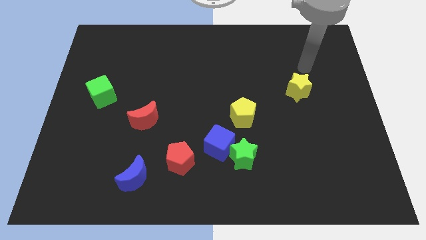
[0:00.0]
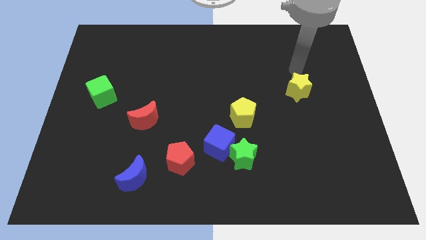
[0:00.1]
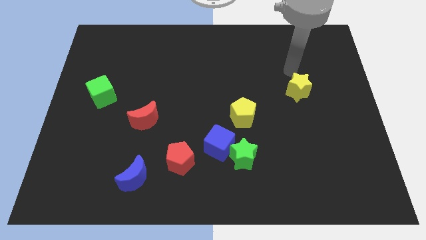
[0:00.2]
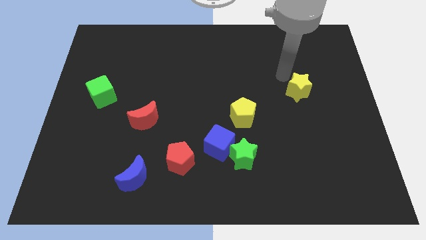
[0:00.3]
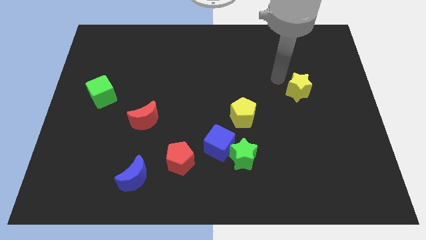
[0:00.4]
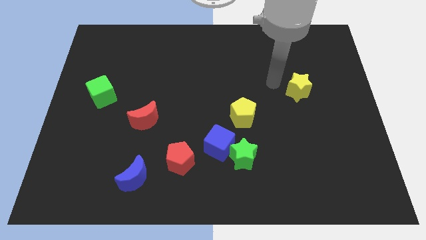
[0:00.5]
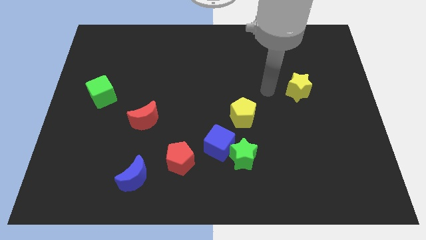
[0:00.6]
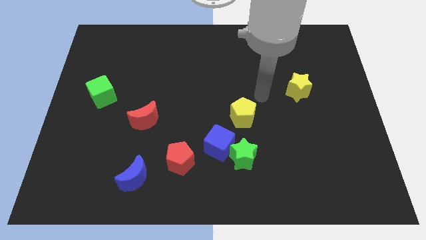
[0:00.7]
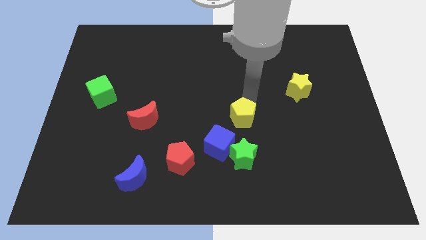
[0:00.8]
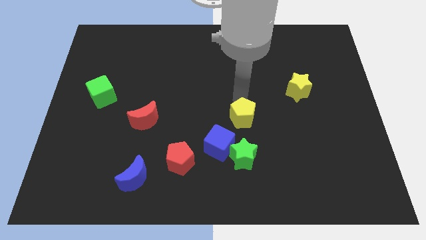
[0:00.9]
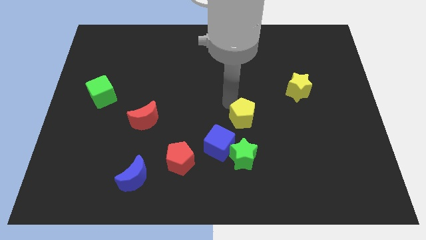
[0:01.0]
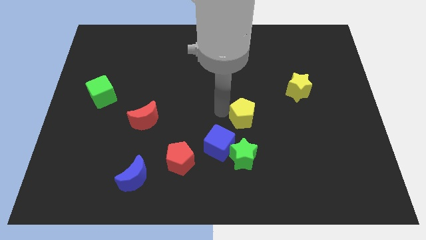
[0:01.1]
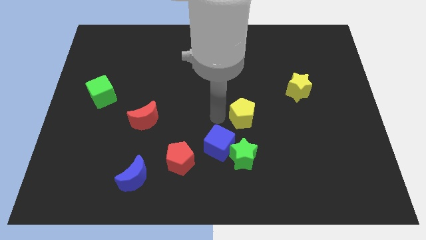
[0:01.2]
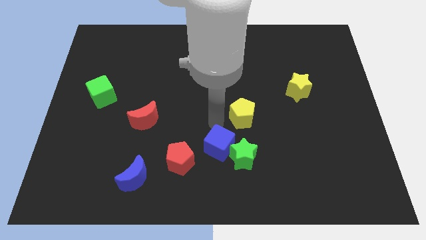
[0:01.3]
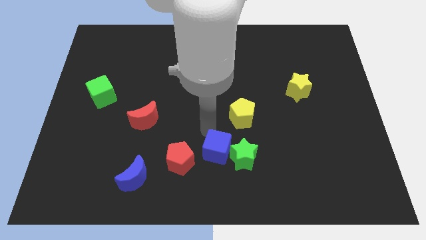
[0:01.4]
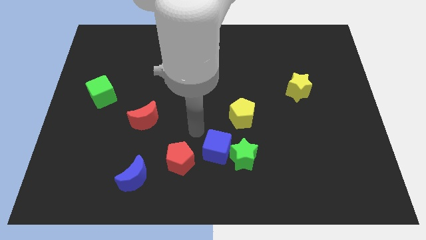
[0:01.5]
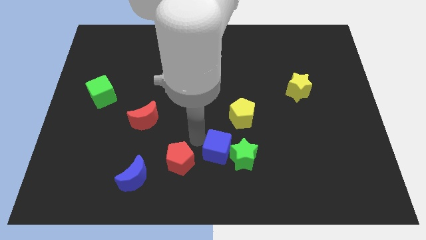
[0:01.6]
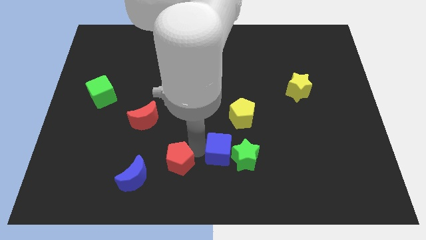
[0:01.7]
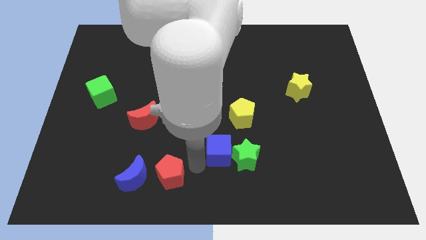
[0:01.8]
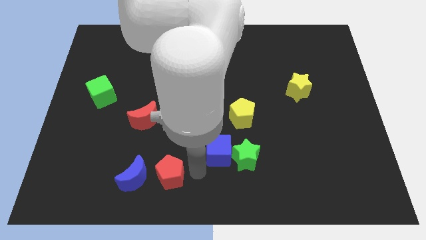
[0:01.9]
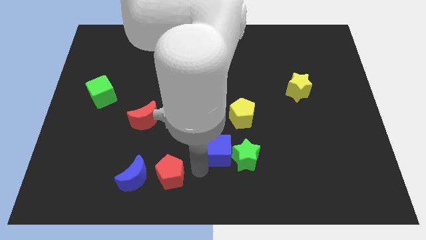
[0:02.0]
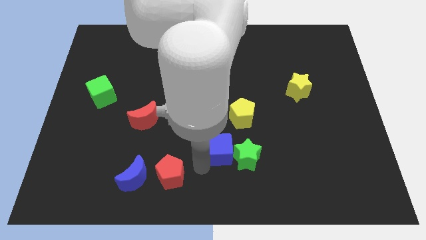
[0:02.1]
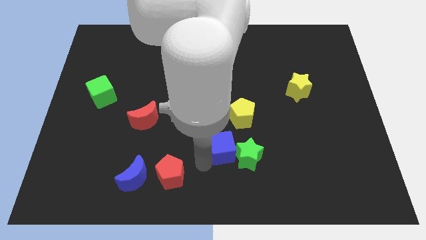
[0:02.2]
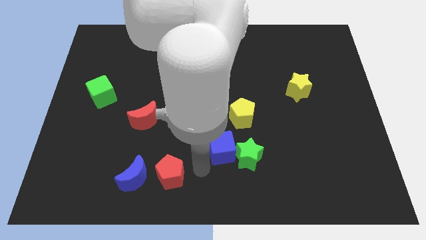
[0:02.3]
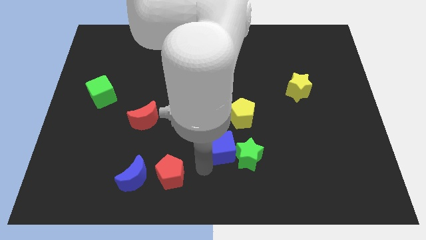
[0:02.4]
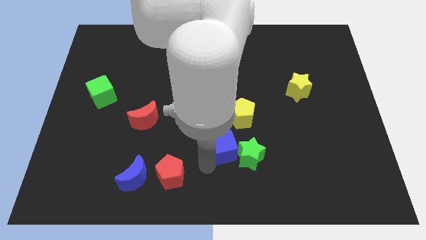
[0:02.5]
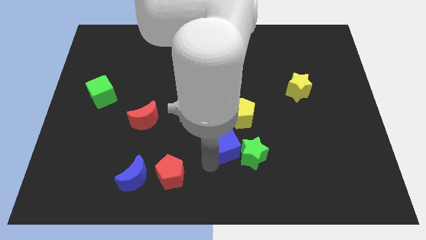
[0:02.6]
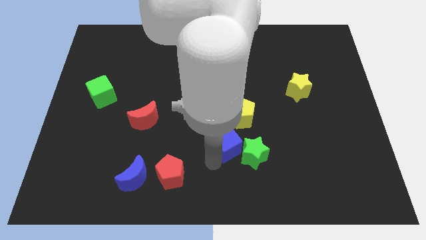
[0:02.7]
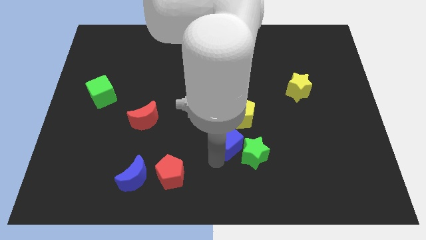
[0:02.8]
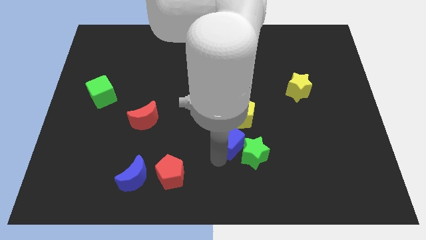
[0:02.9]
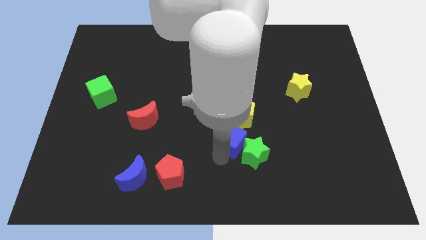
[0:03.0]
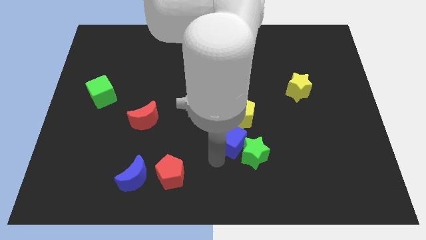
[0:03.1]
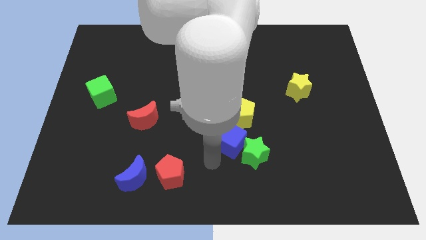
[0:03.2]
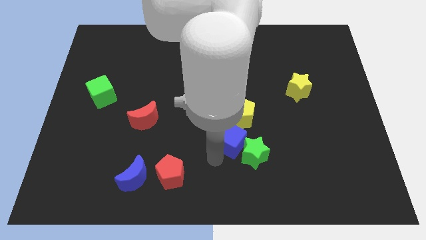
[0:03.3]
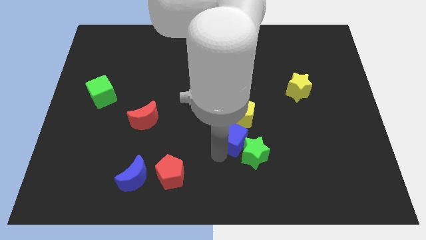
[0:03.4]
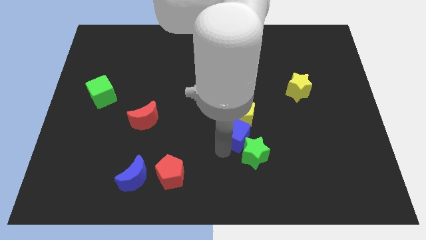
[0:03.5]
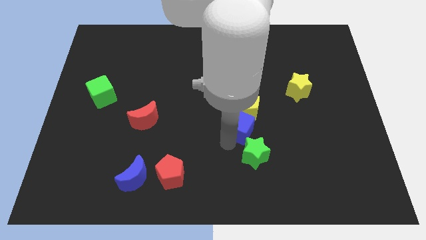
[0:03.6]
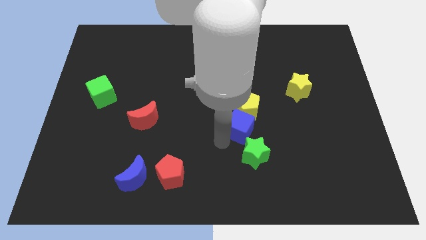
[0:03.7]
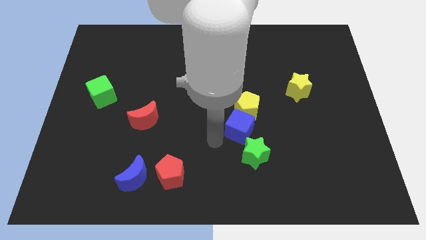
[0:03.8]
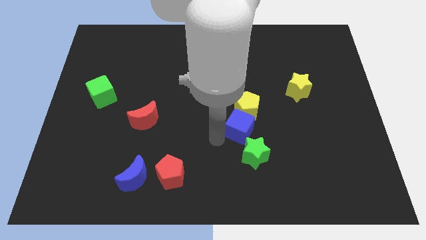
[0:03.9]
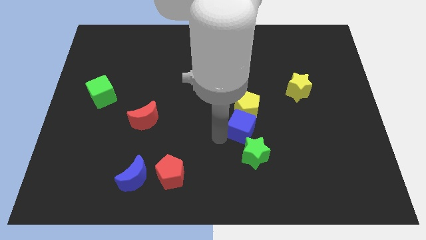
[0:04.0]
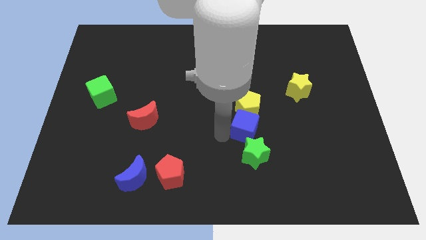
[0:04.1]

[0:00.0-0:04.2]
move the blue cube upwards and to the right a little bit

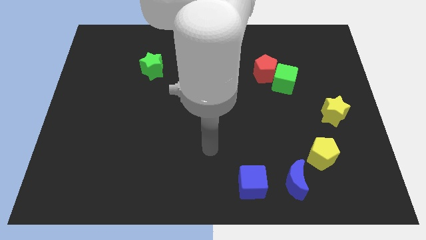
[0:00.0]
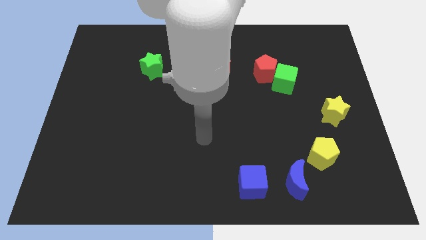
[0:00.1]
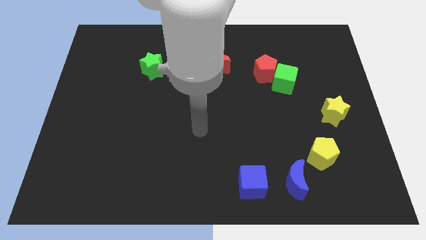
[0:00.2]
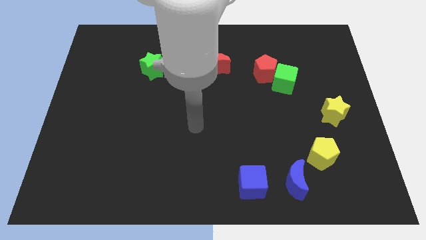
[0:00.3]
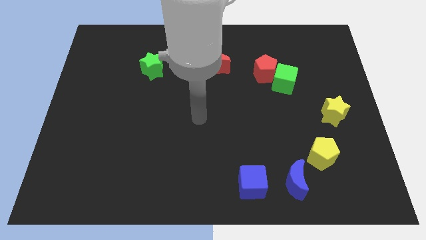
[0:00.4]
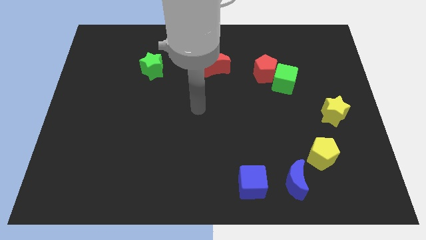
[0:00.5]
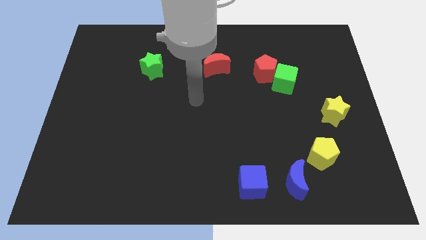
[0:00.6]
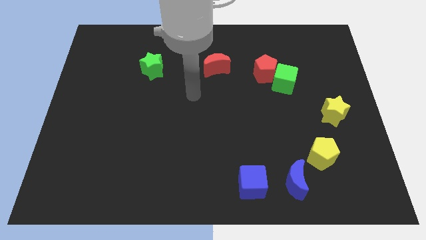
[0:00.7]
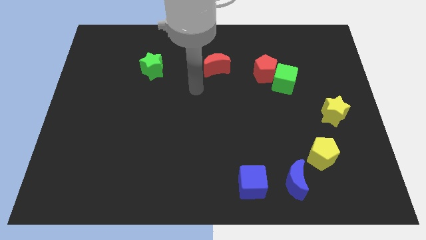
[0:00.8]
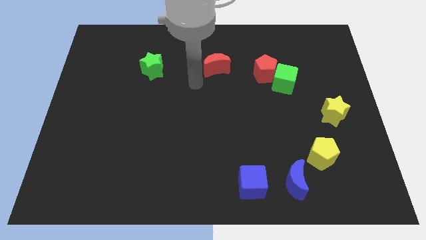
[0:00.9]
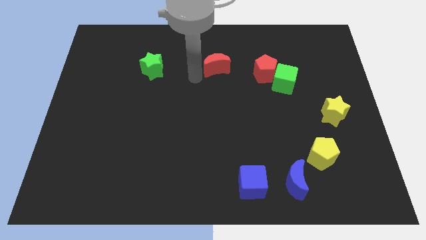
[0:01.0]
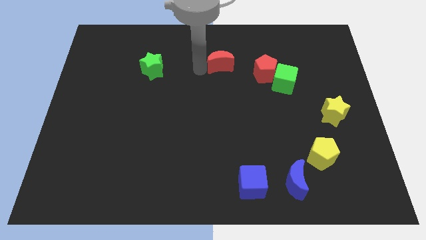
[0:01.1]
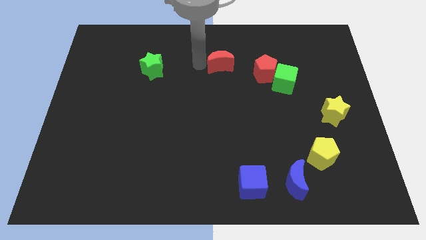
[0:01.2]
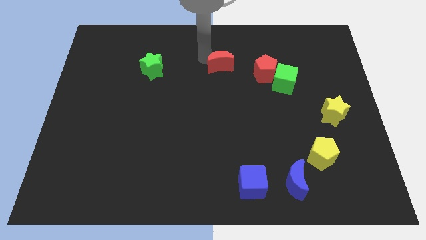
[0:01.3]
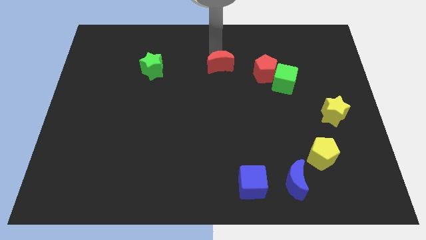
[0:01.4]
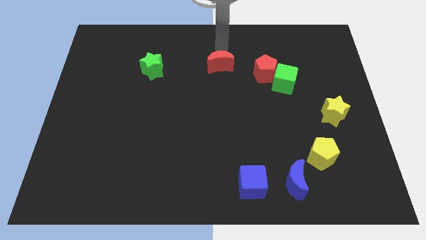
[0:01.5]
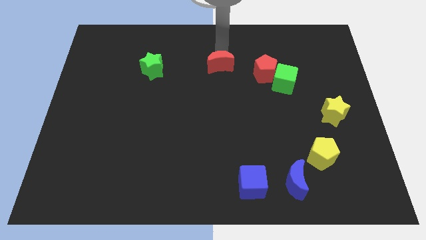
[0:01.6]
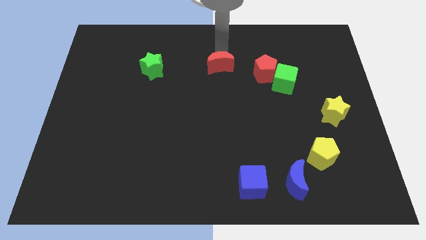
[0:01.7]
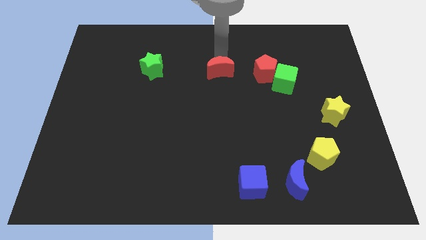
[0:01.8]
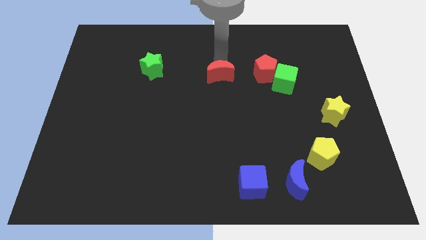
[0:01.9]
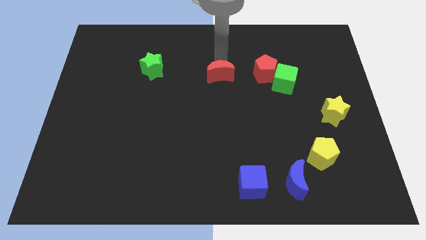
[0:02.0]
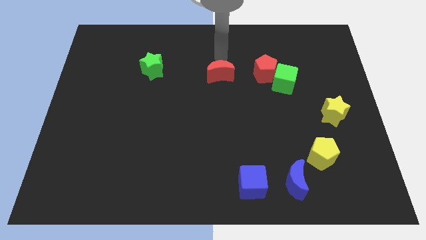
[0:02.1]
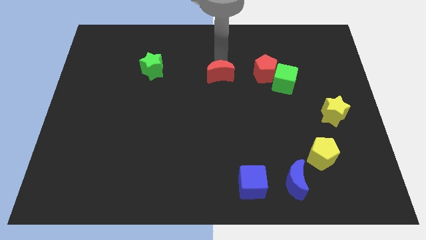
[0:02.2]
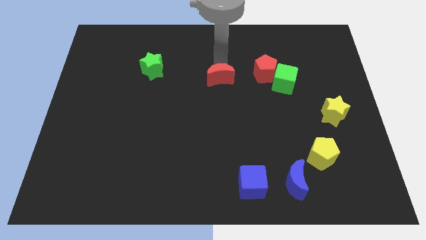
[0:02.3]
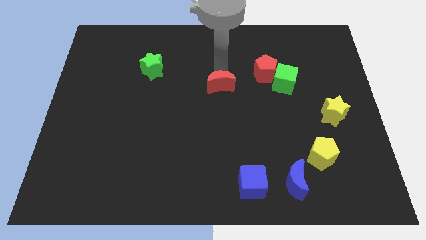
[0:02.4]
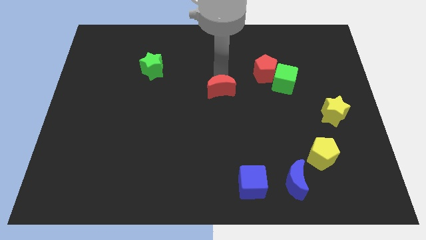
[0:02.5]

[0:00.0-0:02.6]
slightly slide the red moon downwards

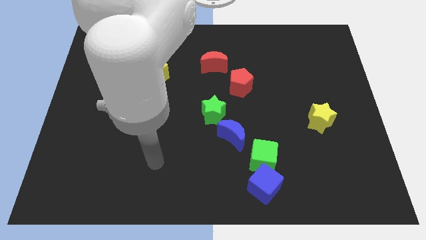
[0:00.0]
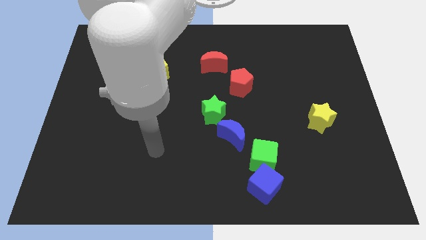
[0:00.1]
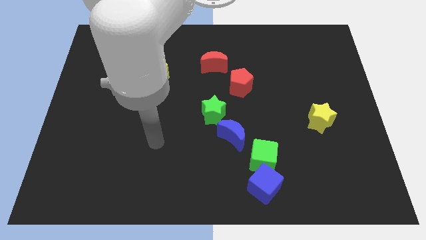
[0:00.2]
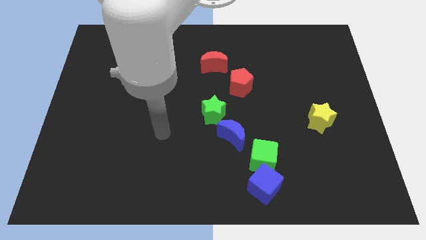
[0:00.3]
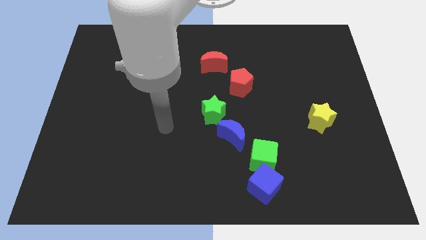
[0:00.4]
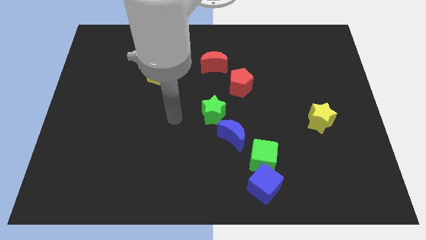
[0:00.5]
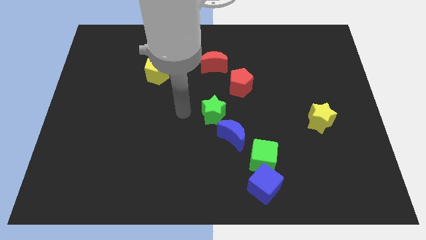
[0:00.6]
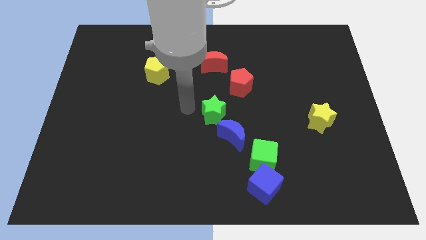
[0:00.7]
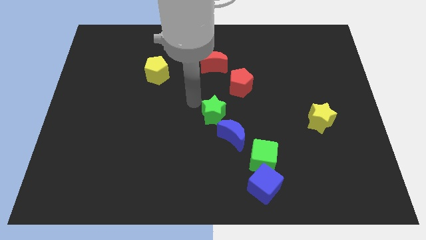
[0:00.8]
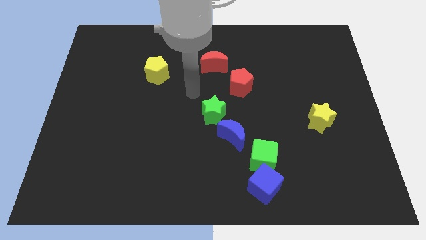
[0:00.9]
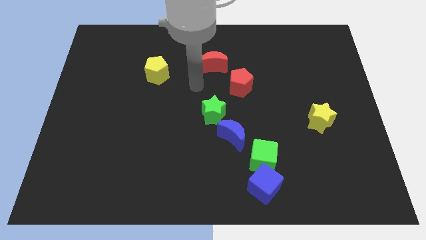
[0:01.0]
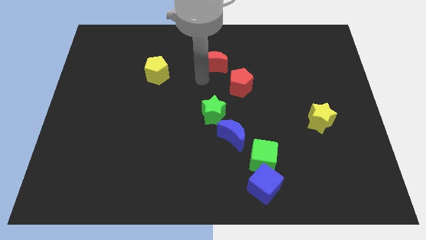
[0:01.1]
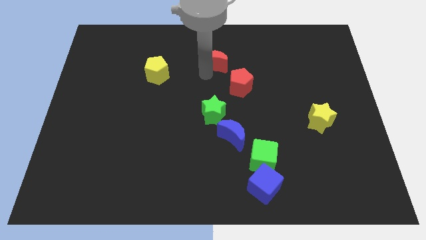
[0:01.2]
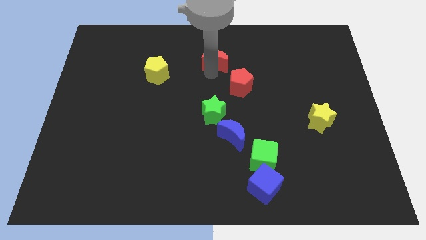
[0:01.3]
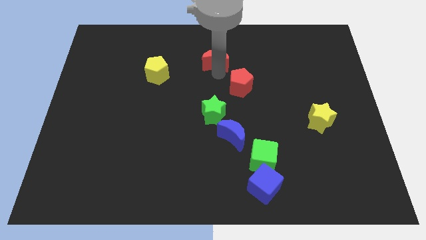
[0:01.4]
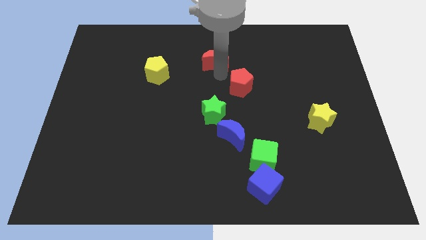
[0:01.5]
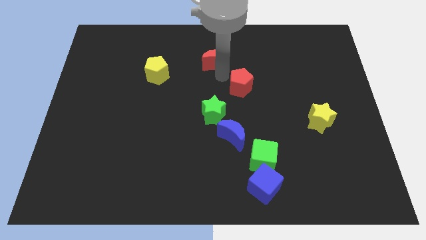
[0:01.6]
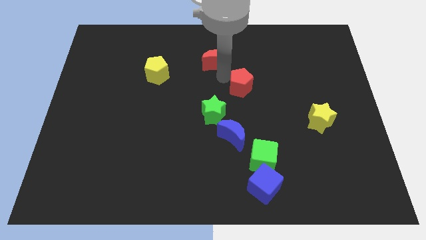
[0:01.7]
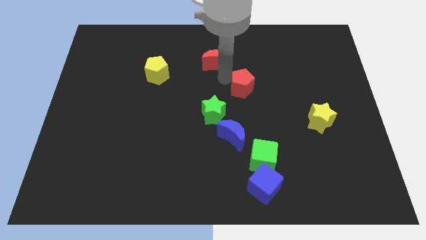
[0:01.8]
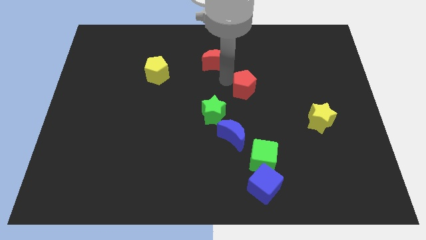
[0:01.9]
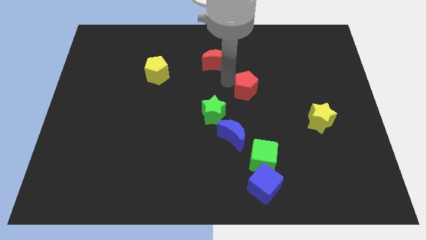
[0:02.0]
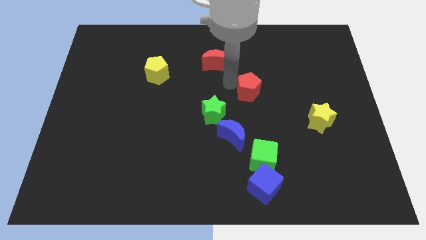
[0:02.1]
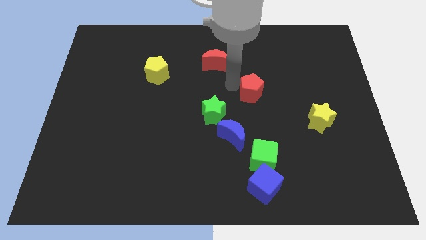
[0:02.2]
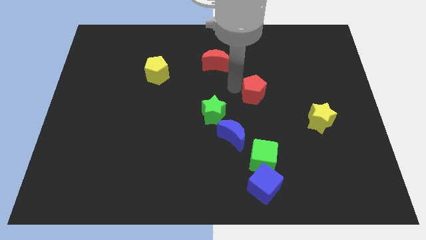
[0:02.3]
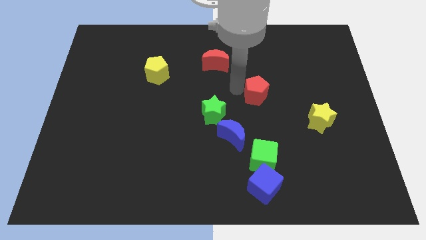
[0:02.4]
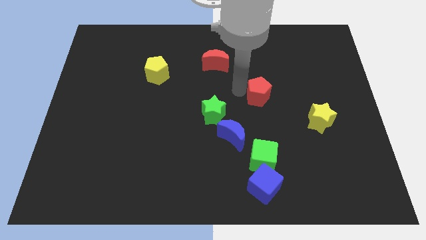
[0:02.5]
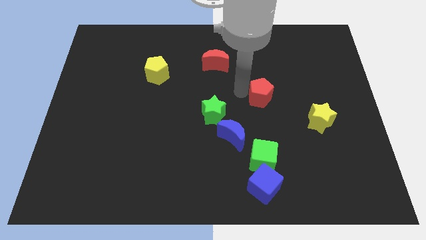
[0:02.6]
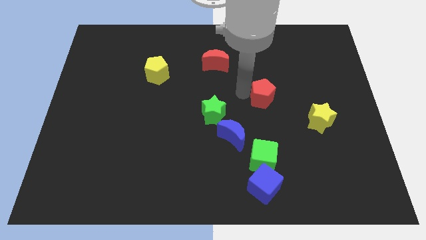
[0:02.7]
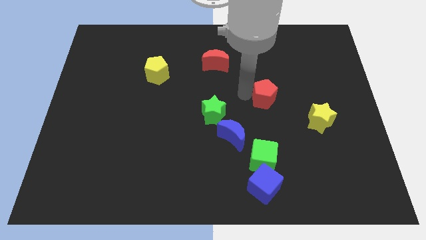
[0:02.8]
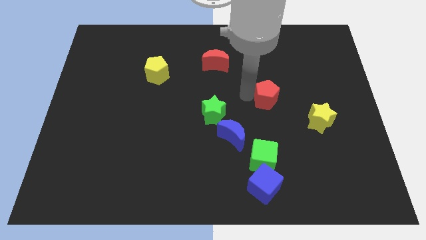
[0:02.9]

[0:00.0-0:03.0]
push the red pentagon diagonally downwards and right a bit
